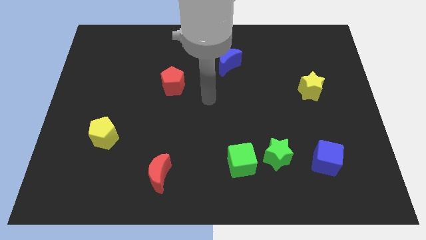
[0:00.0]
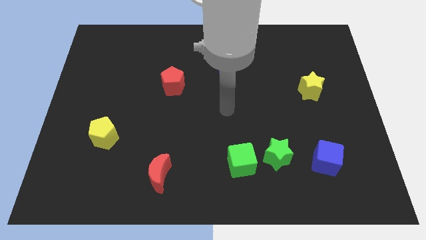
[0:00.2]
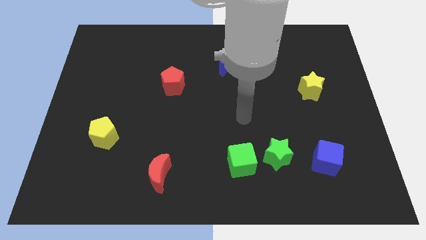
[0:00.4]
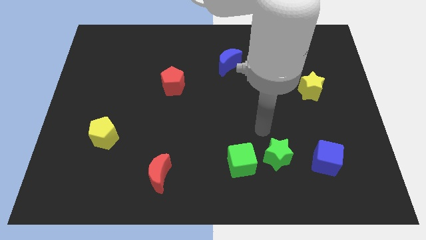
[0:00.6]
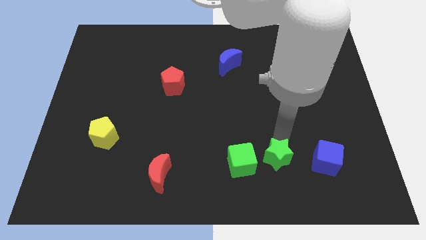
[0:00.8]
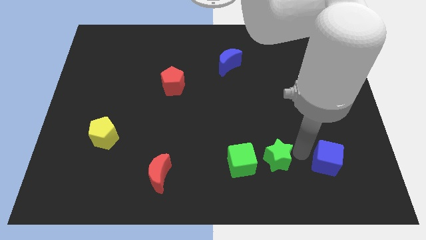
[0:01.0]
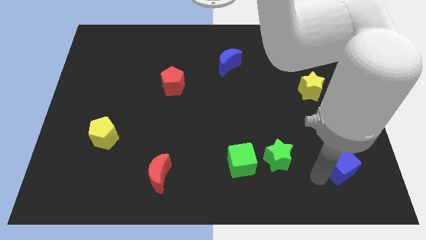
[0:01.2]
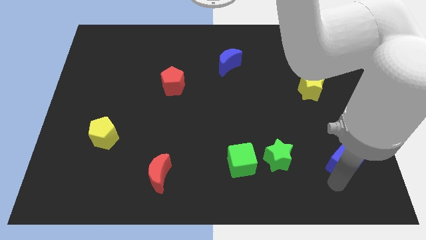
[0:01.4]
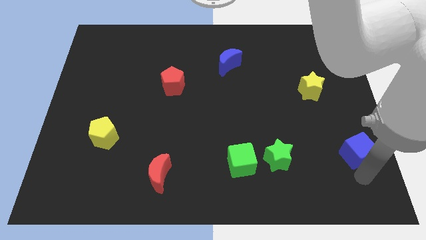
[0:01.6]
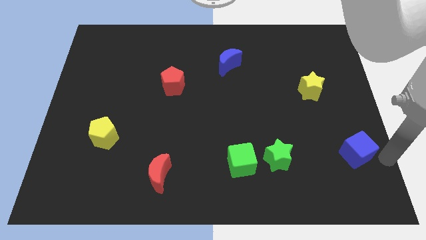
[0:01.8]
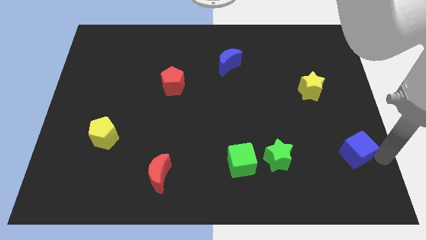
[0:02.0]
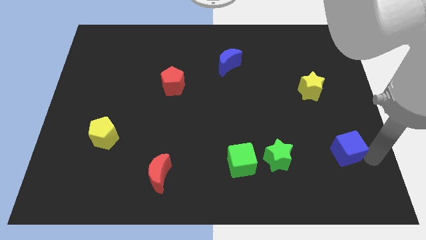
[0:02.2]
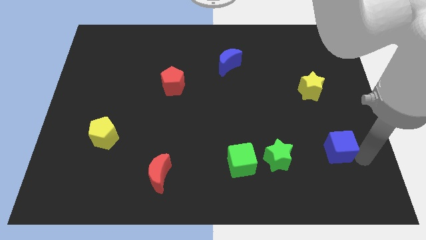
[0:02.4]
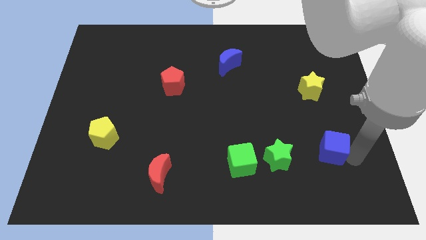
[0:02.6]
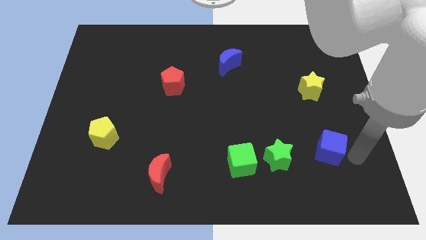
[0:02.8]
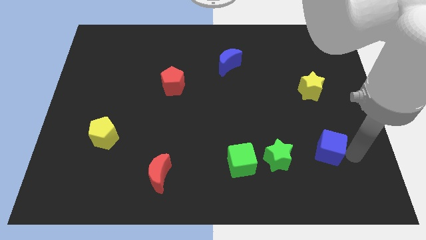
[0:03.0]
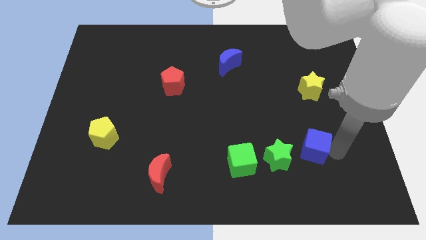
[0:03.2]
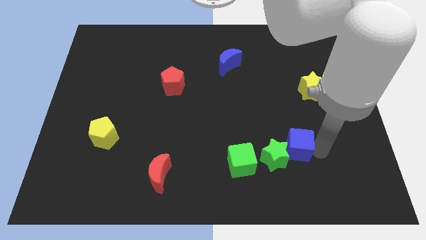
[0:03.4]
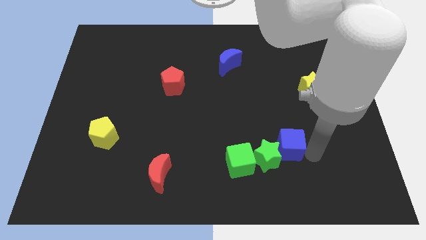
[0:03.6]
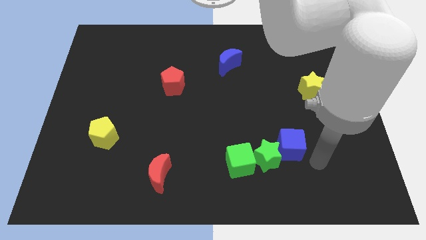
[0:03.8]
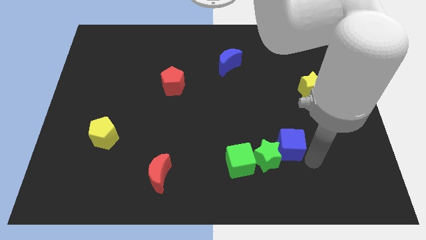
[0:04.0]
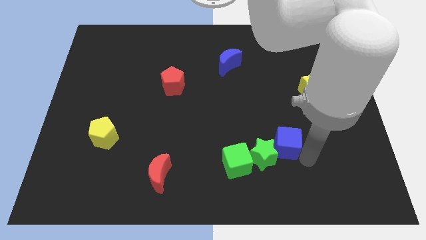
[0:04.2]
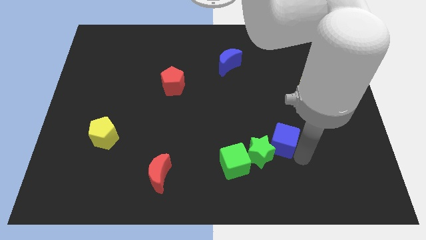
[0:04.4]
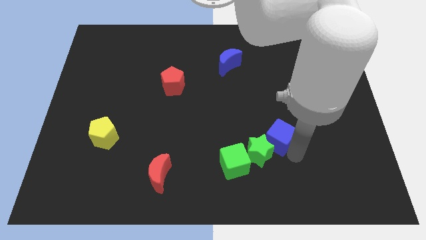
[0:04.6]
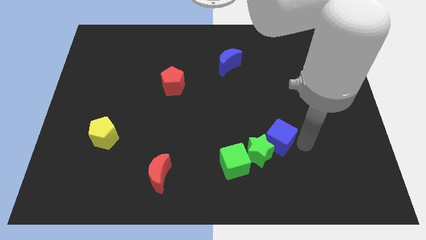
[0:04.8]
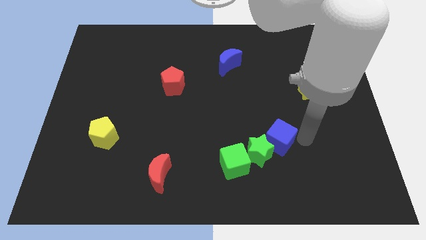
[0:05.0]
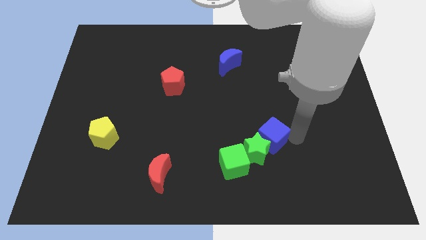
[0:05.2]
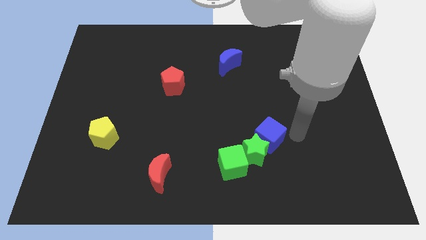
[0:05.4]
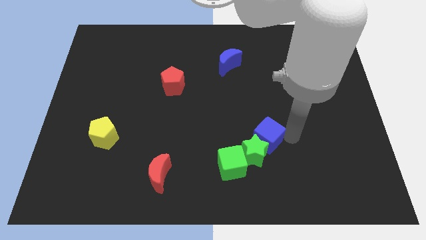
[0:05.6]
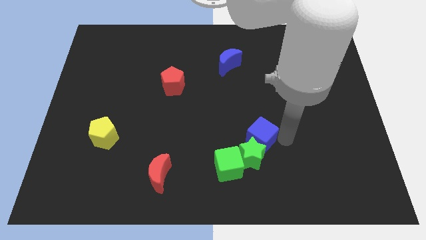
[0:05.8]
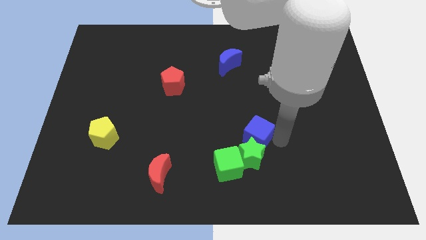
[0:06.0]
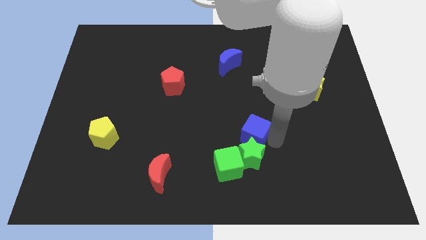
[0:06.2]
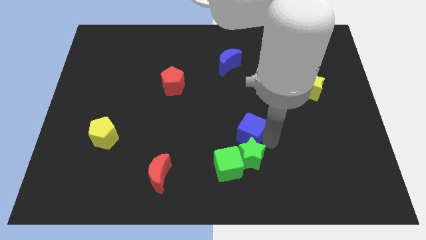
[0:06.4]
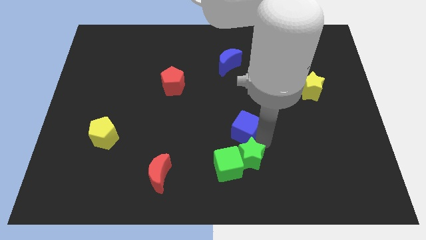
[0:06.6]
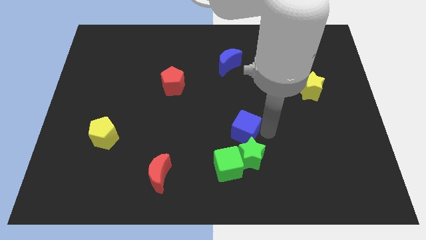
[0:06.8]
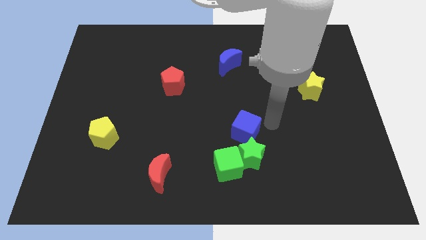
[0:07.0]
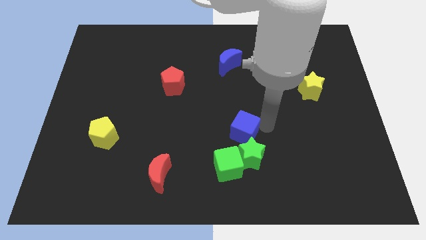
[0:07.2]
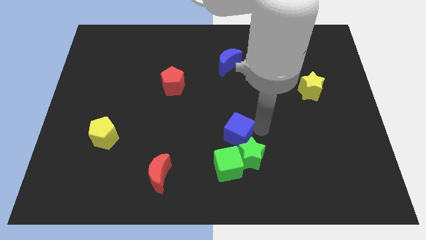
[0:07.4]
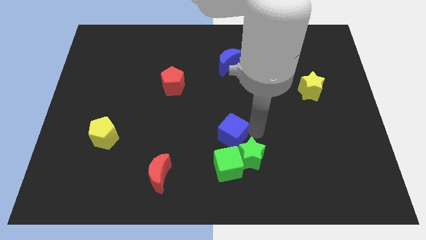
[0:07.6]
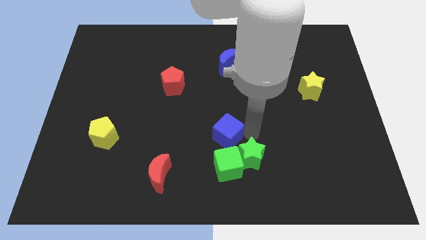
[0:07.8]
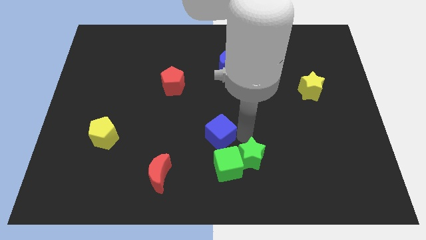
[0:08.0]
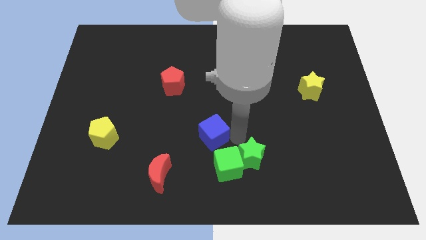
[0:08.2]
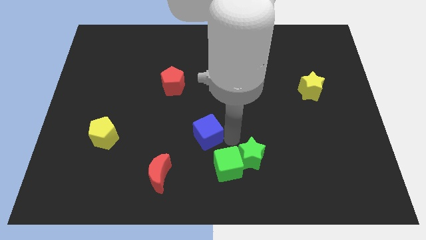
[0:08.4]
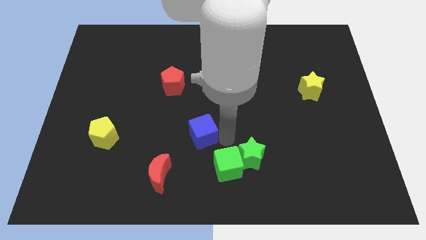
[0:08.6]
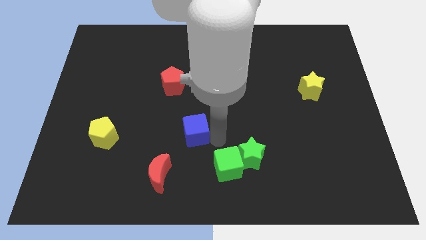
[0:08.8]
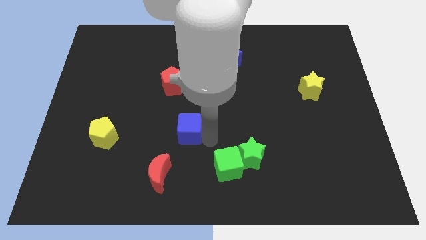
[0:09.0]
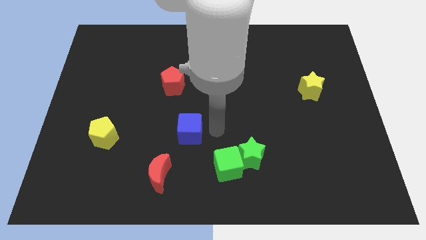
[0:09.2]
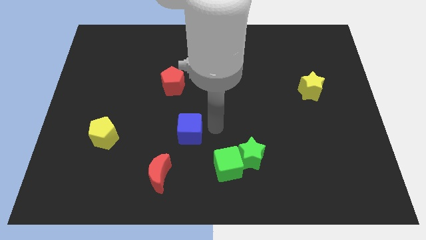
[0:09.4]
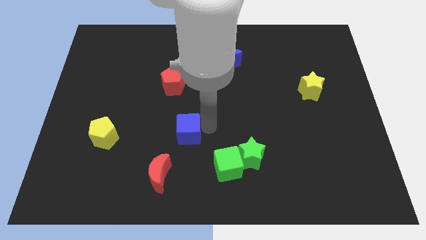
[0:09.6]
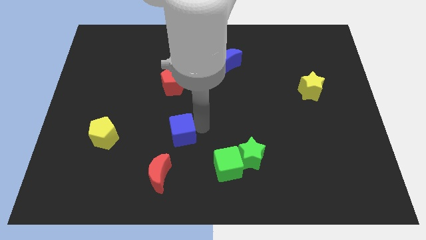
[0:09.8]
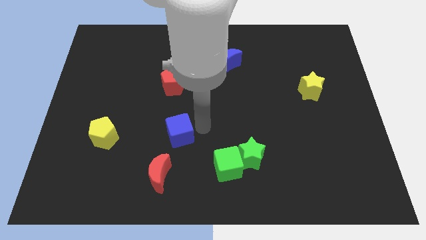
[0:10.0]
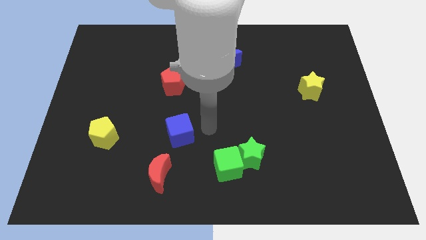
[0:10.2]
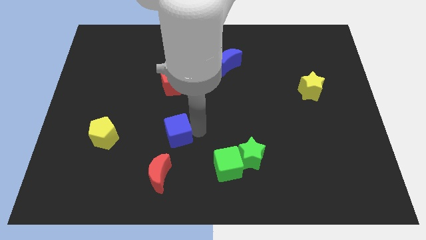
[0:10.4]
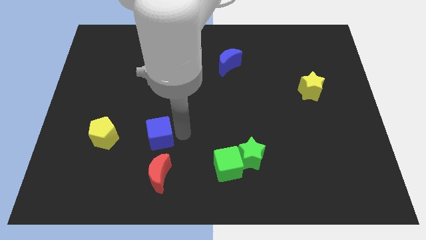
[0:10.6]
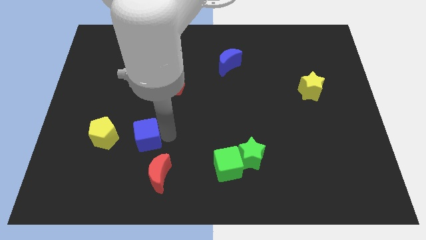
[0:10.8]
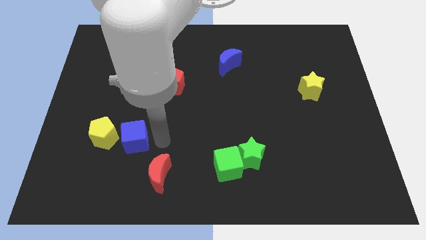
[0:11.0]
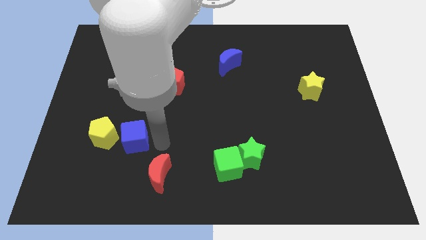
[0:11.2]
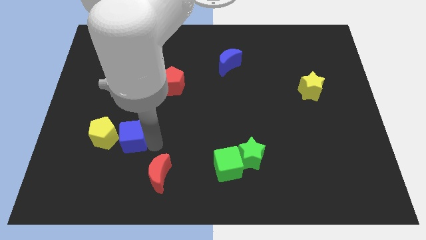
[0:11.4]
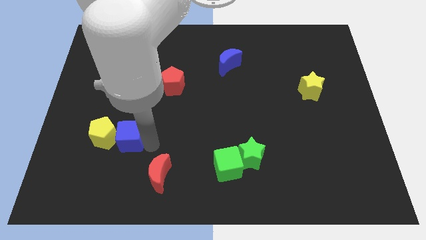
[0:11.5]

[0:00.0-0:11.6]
move the blue cube close to the yellow pentagon

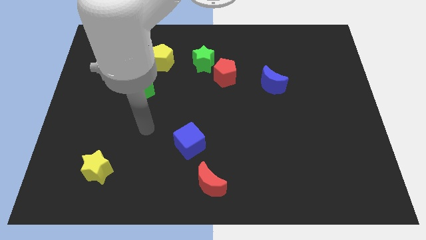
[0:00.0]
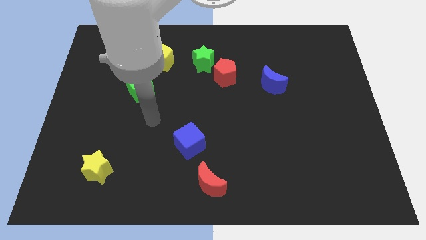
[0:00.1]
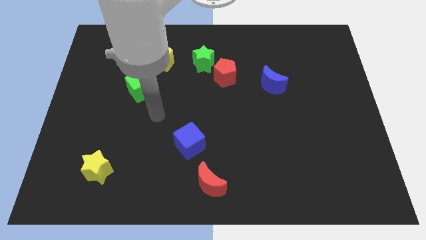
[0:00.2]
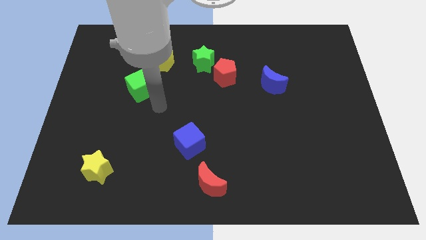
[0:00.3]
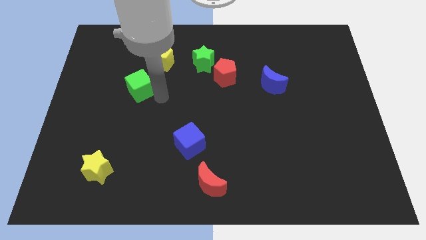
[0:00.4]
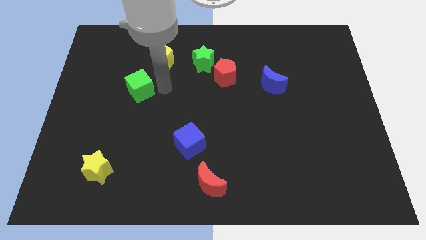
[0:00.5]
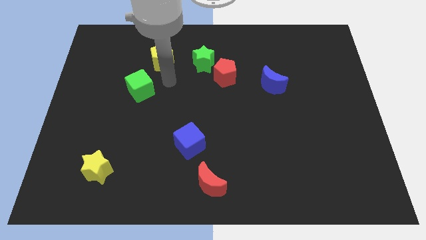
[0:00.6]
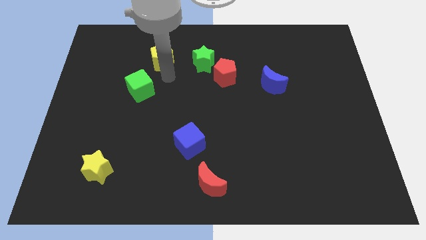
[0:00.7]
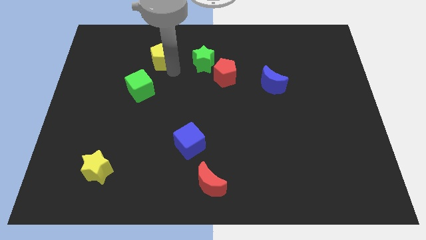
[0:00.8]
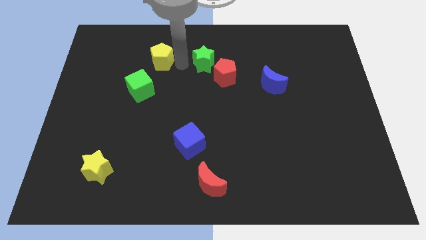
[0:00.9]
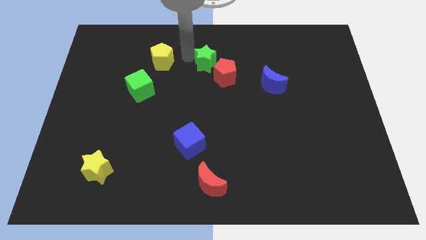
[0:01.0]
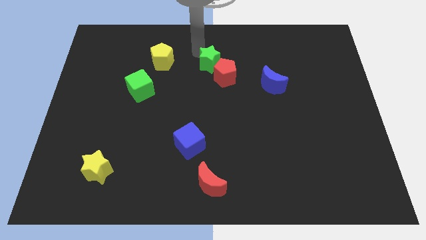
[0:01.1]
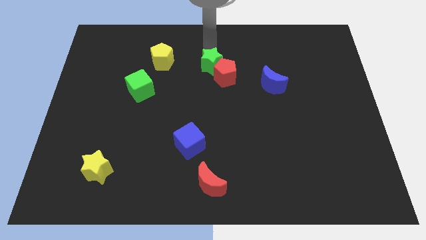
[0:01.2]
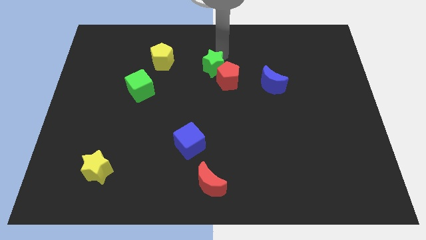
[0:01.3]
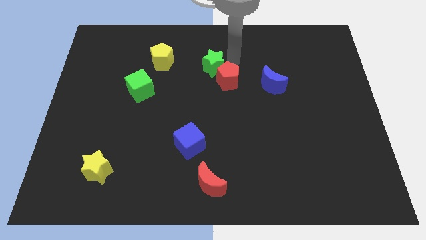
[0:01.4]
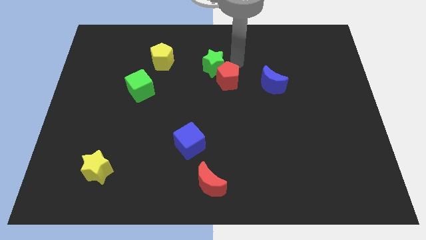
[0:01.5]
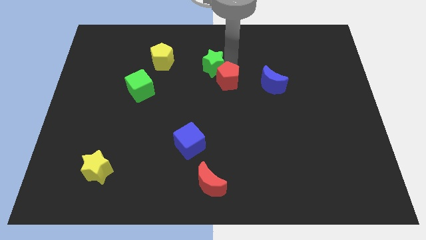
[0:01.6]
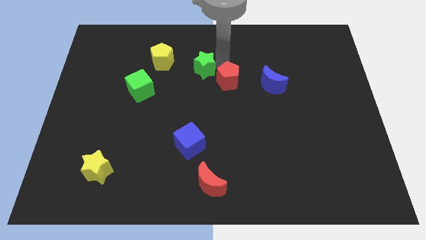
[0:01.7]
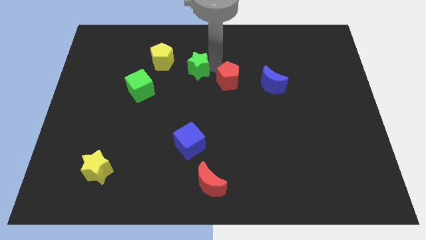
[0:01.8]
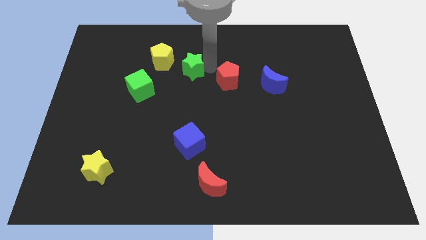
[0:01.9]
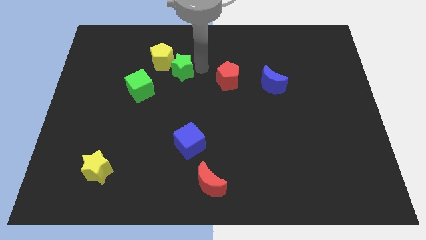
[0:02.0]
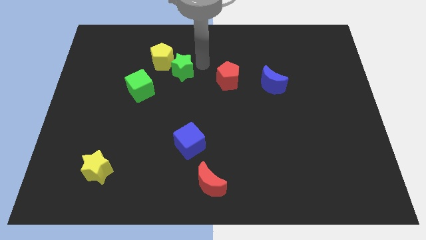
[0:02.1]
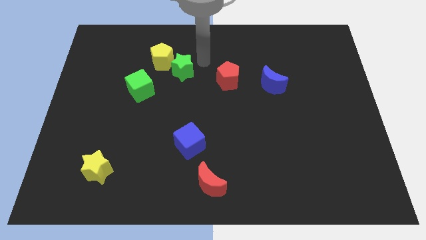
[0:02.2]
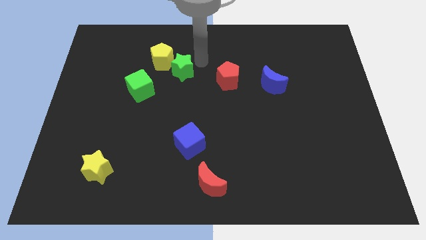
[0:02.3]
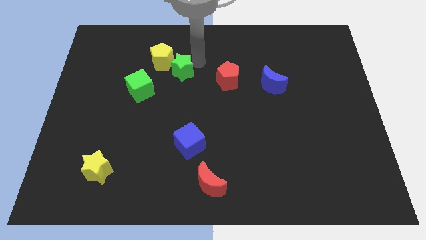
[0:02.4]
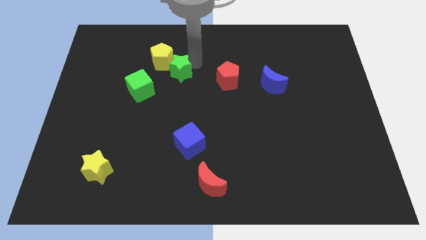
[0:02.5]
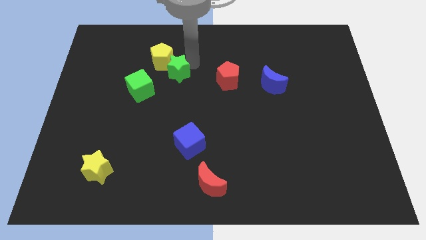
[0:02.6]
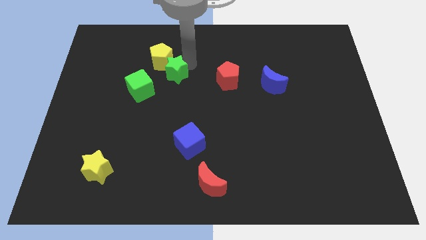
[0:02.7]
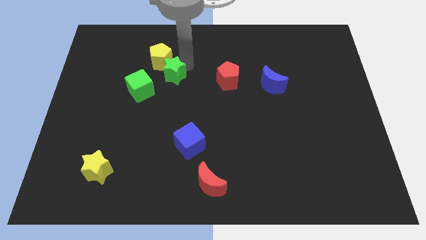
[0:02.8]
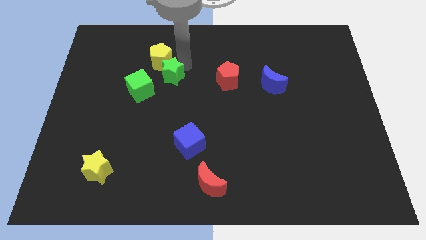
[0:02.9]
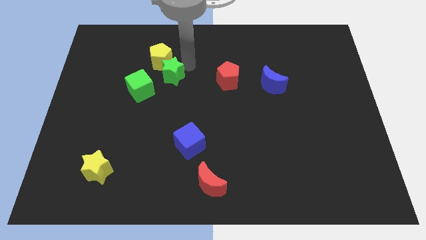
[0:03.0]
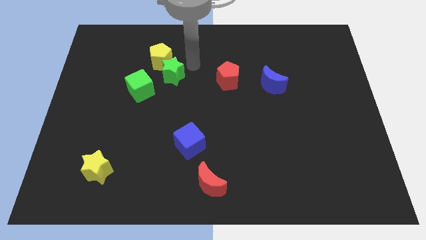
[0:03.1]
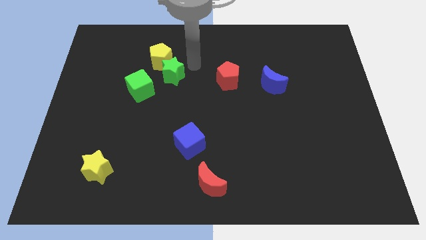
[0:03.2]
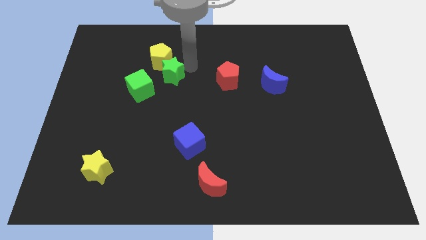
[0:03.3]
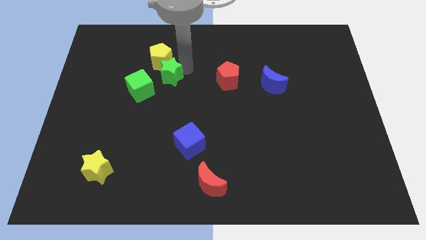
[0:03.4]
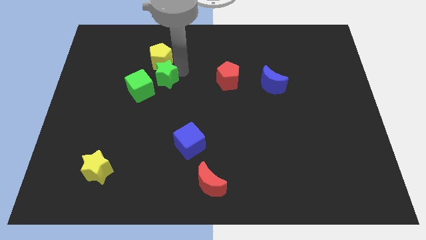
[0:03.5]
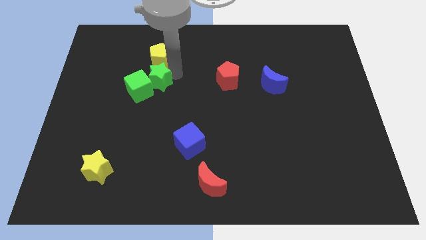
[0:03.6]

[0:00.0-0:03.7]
push the green star close to the green cube
